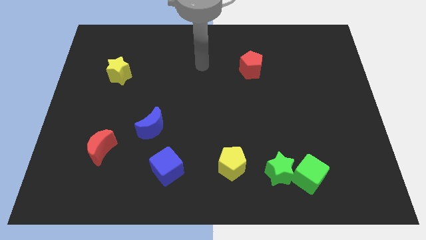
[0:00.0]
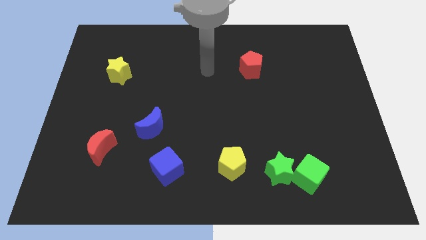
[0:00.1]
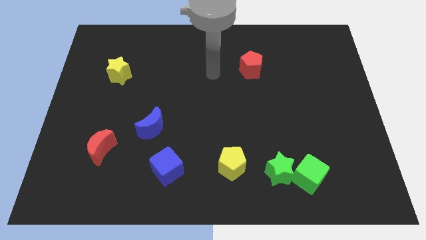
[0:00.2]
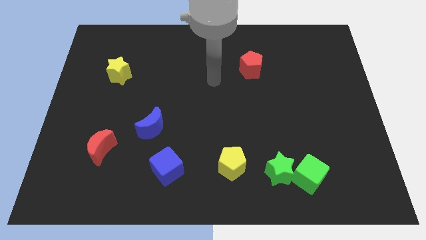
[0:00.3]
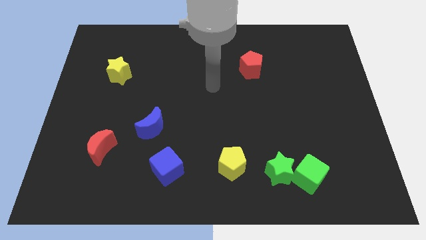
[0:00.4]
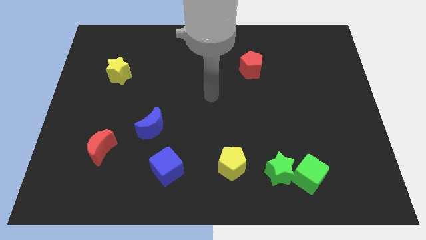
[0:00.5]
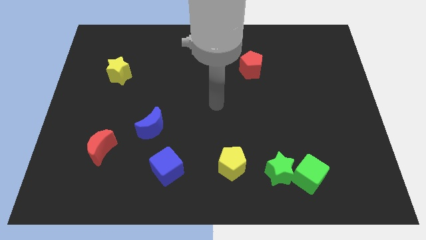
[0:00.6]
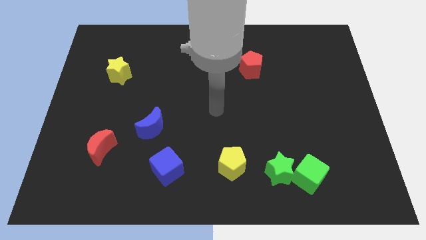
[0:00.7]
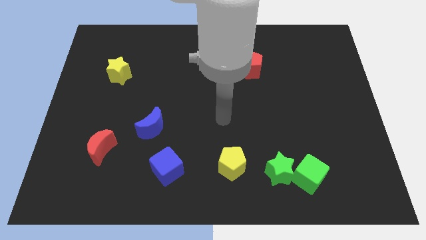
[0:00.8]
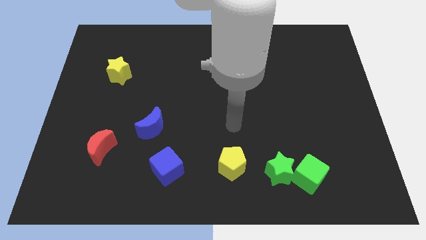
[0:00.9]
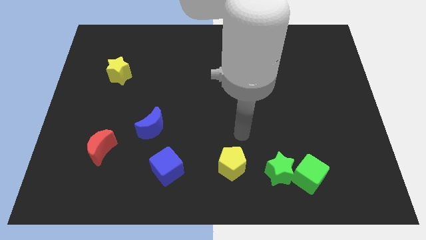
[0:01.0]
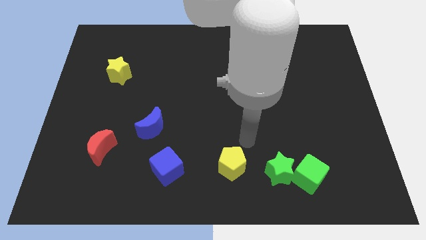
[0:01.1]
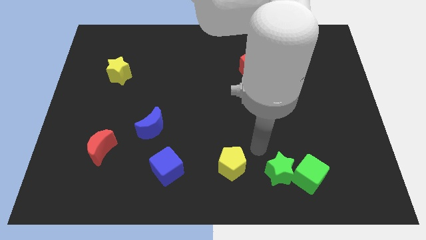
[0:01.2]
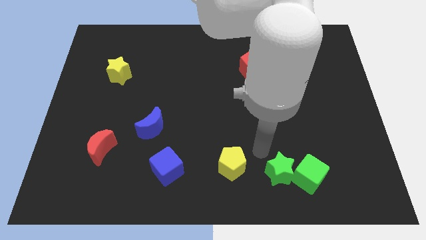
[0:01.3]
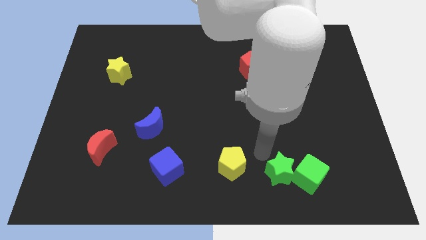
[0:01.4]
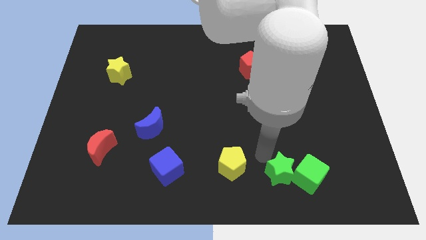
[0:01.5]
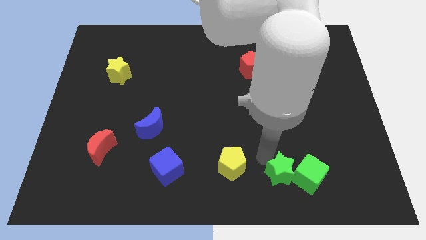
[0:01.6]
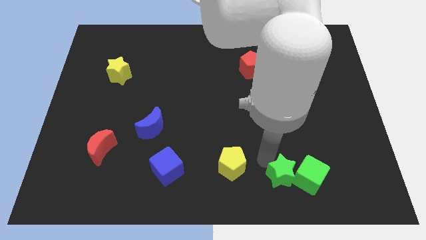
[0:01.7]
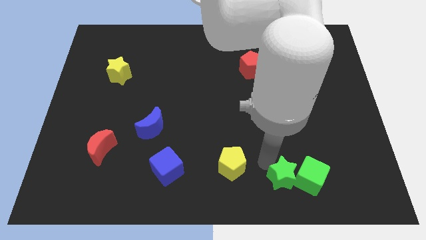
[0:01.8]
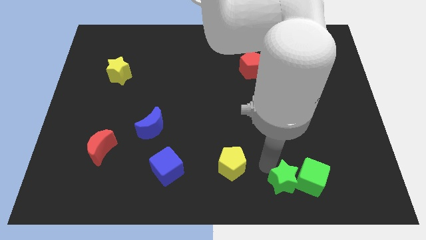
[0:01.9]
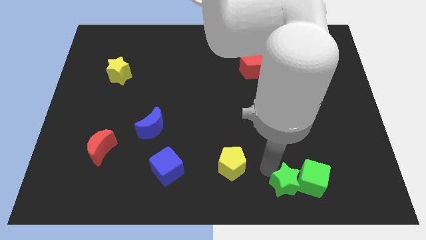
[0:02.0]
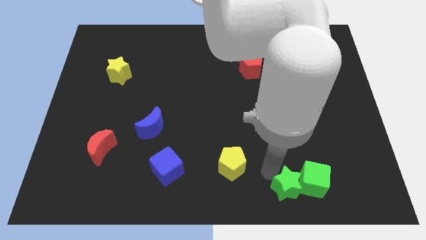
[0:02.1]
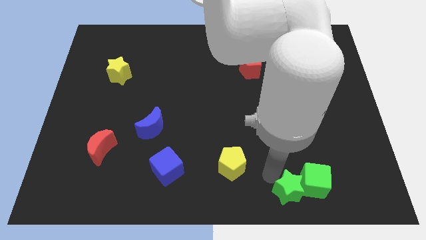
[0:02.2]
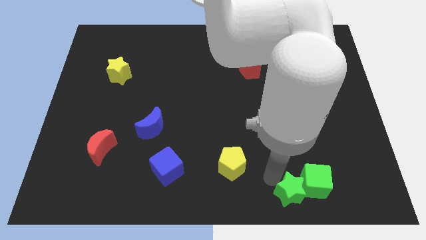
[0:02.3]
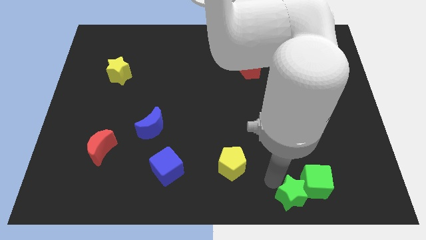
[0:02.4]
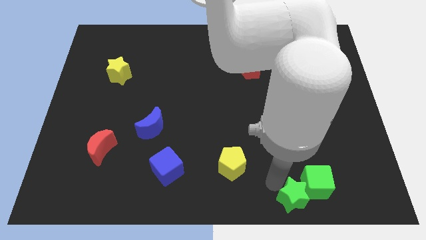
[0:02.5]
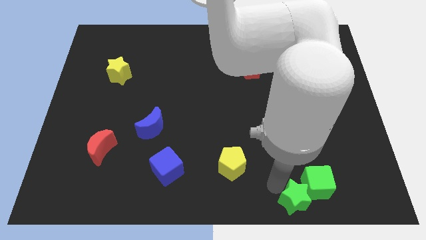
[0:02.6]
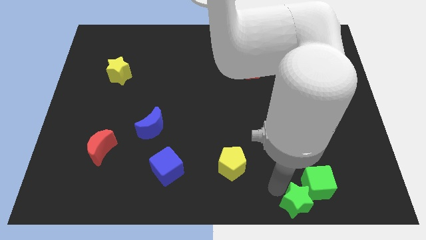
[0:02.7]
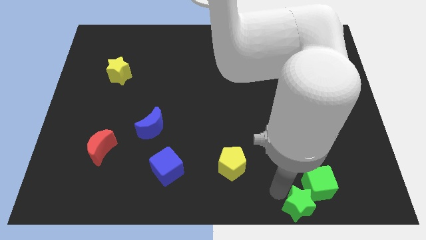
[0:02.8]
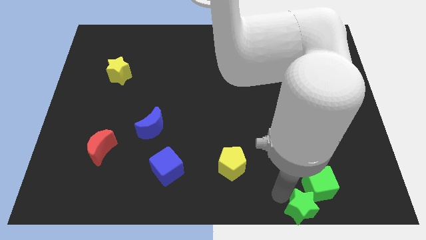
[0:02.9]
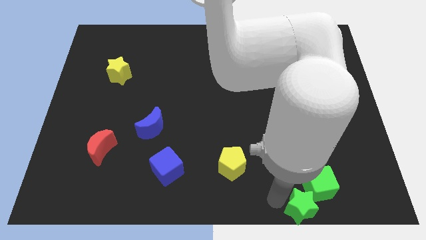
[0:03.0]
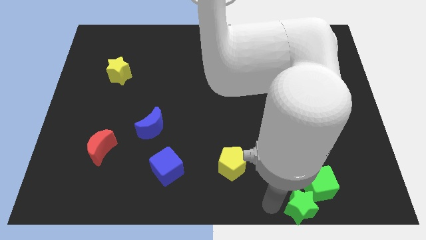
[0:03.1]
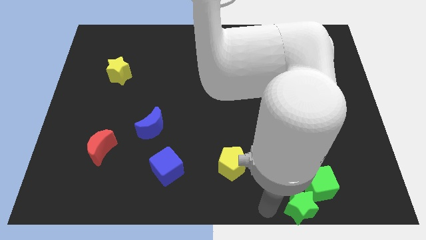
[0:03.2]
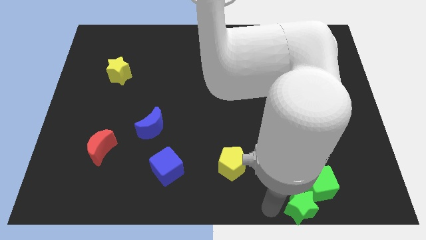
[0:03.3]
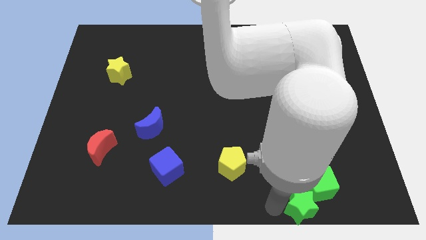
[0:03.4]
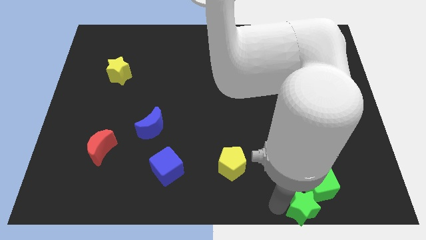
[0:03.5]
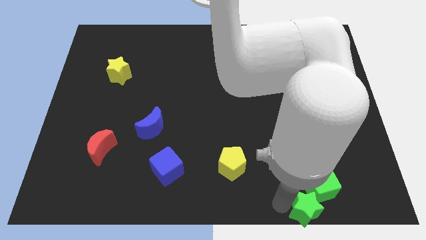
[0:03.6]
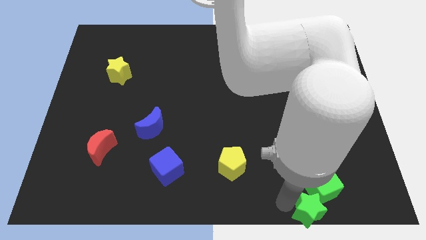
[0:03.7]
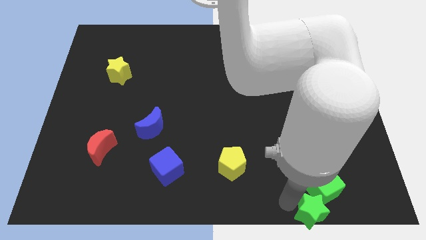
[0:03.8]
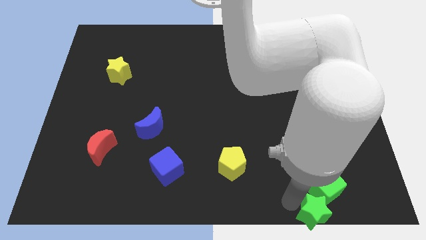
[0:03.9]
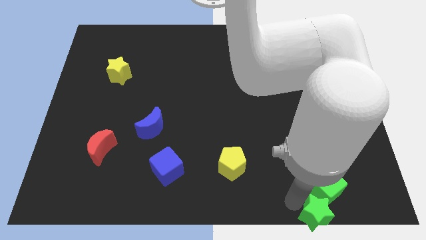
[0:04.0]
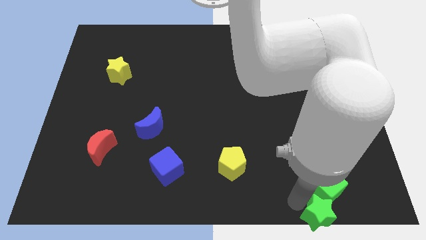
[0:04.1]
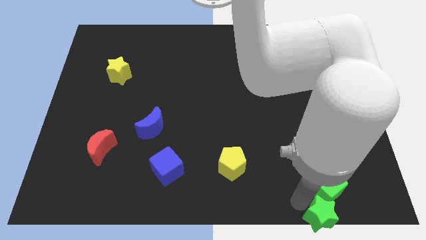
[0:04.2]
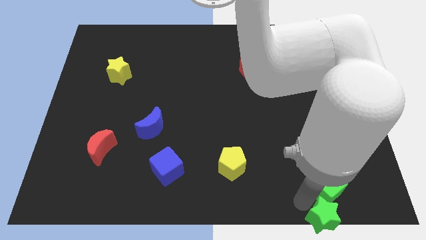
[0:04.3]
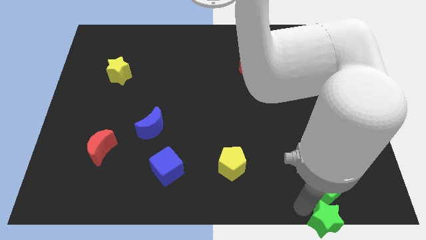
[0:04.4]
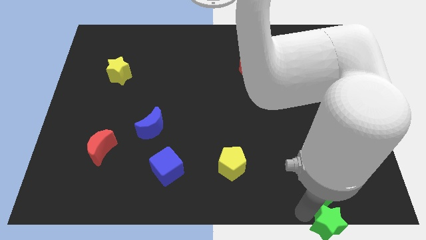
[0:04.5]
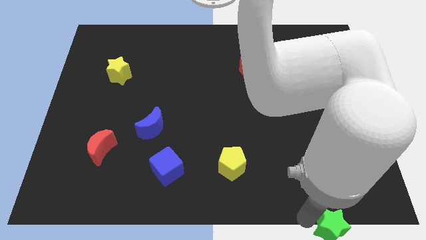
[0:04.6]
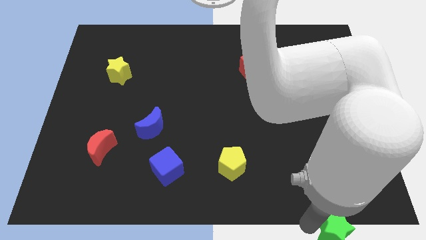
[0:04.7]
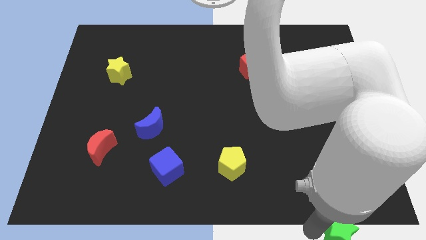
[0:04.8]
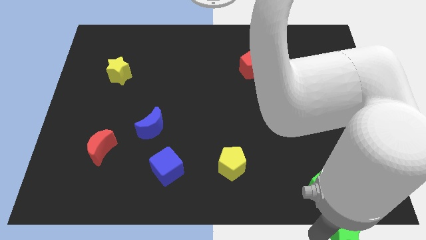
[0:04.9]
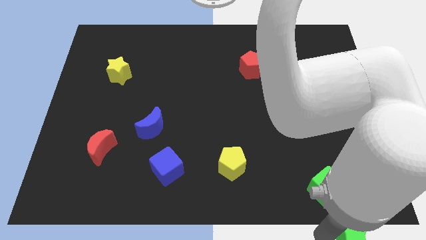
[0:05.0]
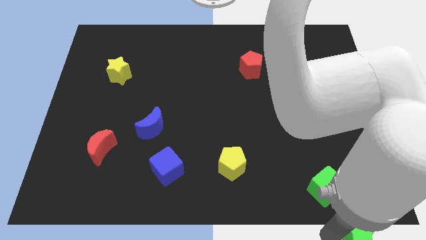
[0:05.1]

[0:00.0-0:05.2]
move the green star to the lower right corner

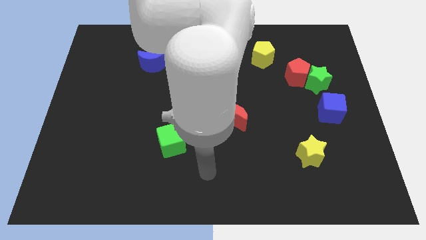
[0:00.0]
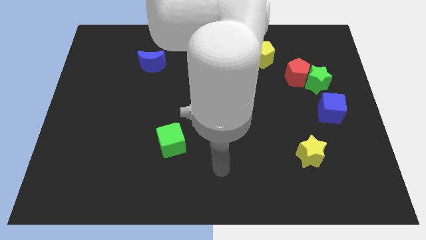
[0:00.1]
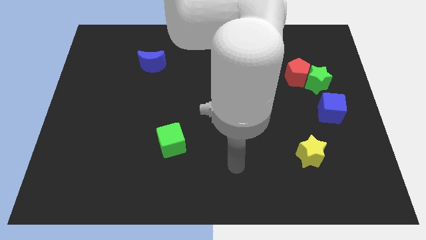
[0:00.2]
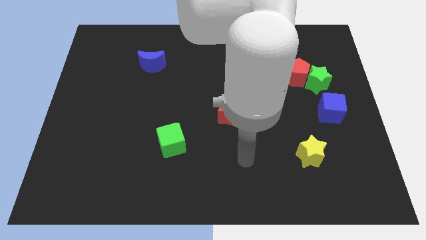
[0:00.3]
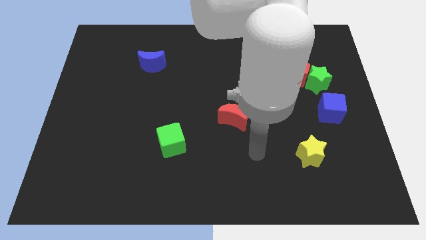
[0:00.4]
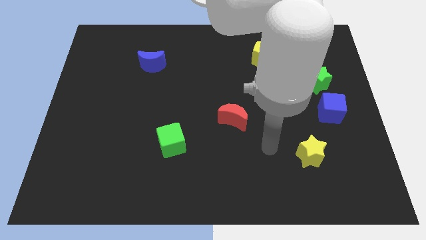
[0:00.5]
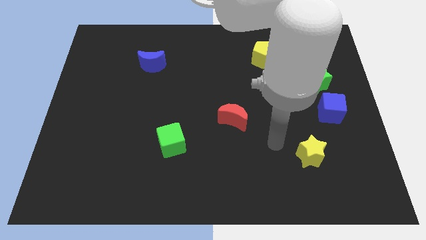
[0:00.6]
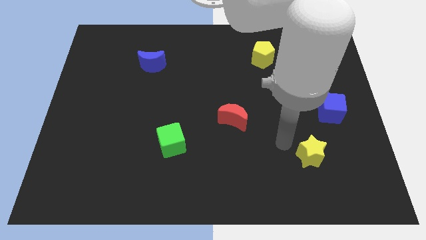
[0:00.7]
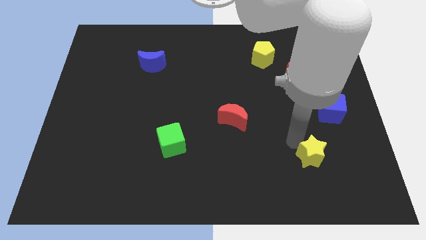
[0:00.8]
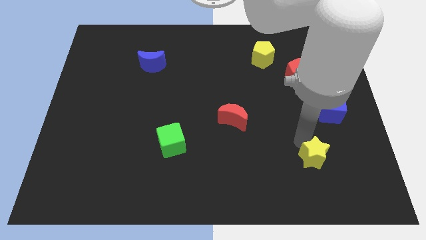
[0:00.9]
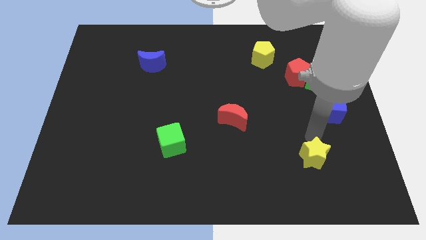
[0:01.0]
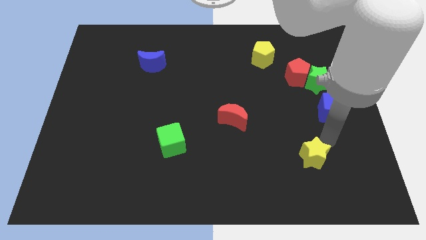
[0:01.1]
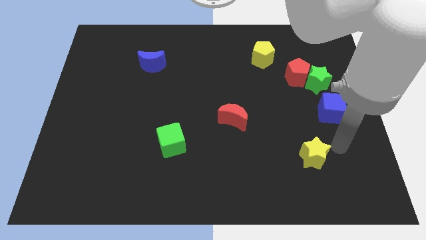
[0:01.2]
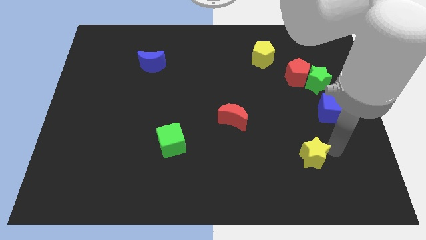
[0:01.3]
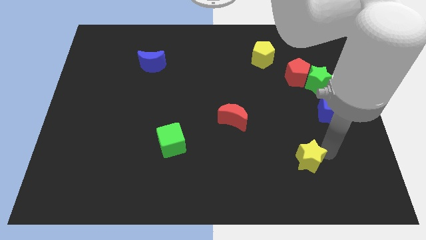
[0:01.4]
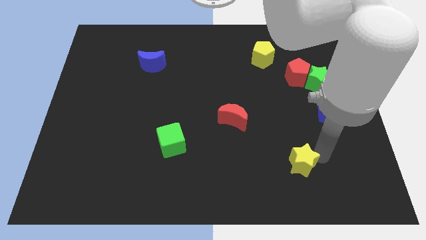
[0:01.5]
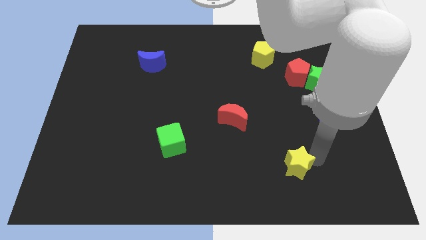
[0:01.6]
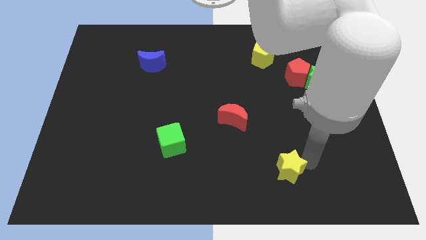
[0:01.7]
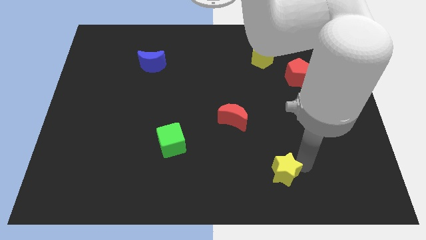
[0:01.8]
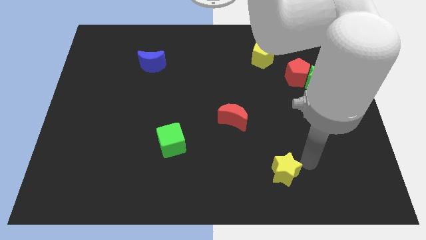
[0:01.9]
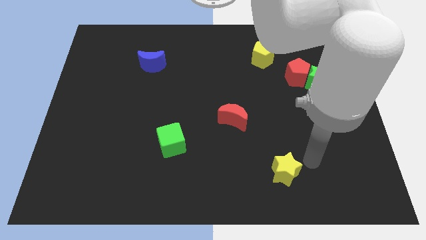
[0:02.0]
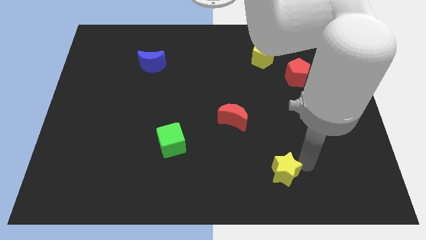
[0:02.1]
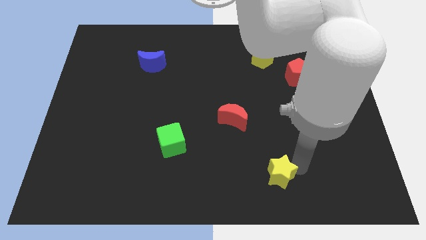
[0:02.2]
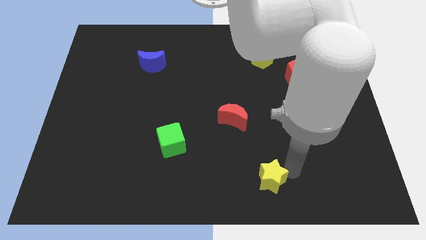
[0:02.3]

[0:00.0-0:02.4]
slide the yellow star to the bottom side
